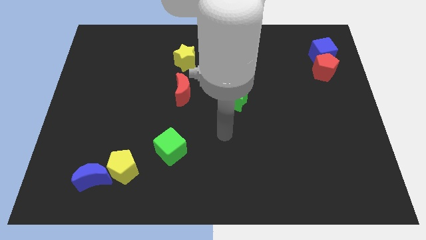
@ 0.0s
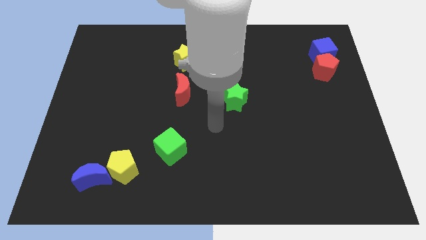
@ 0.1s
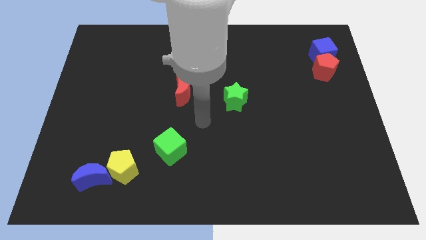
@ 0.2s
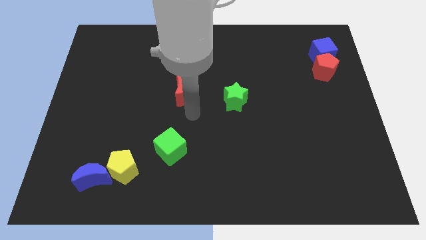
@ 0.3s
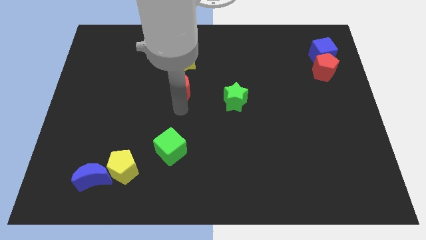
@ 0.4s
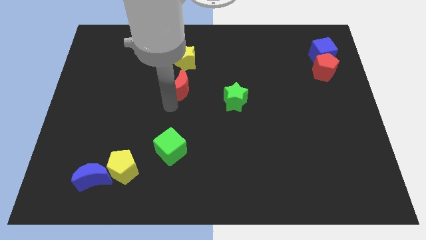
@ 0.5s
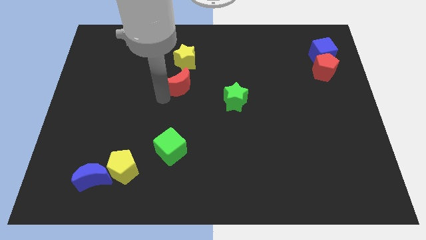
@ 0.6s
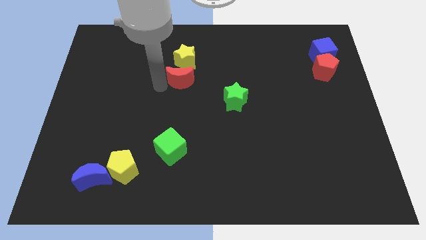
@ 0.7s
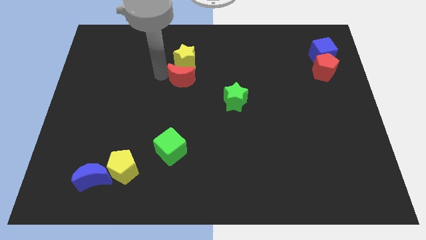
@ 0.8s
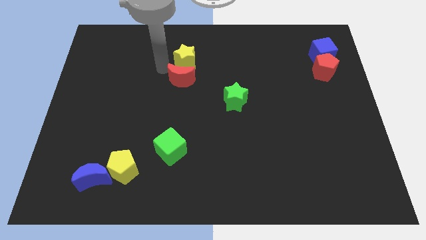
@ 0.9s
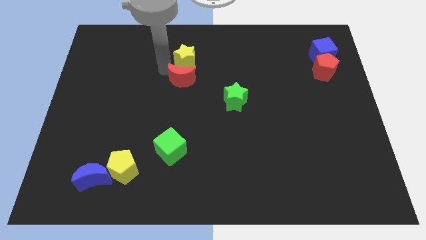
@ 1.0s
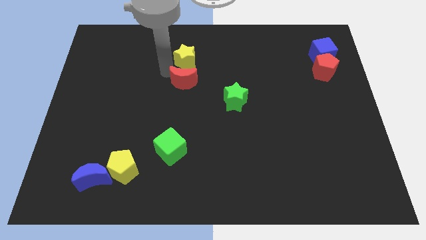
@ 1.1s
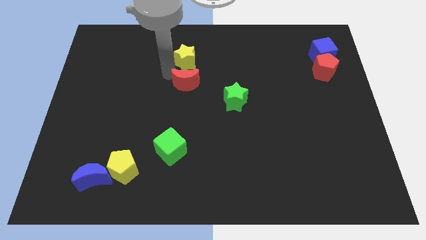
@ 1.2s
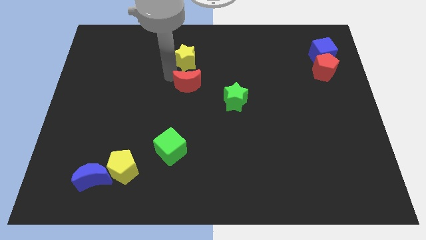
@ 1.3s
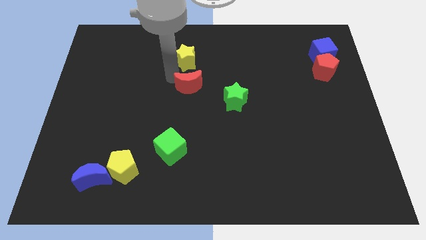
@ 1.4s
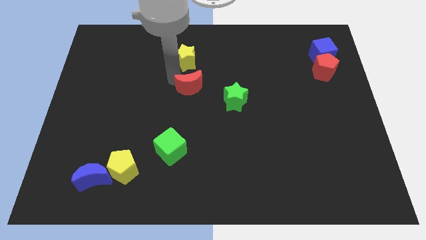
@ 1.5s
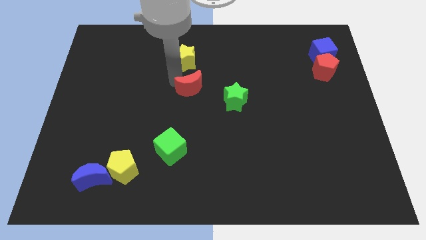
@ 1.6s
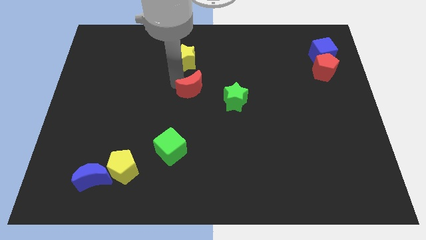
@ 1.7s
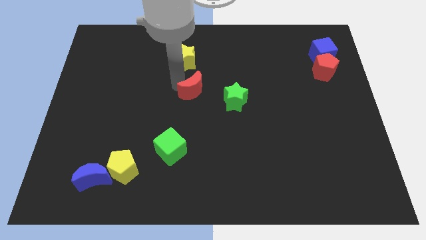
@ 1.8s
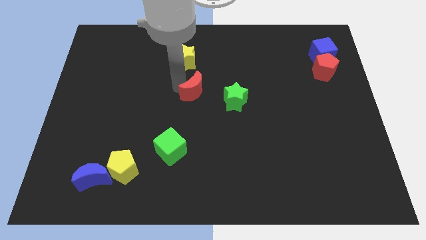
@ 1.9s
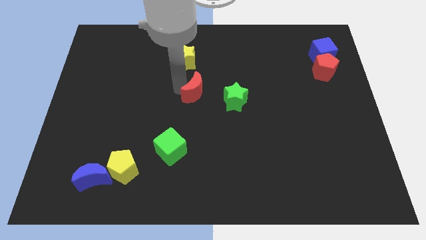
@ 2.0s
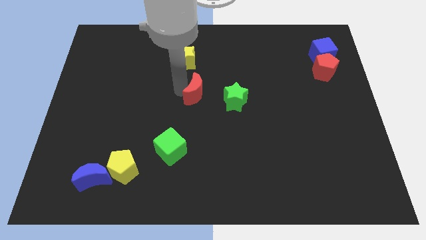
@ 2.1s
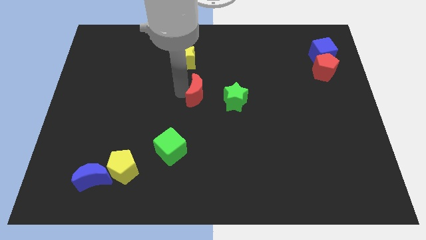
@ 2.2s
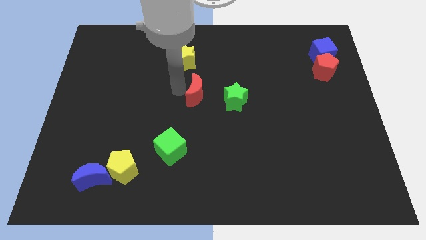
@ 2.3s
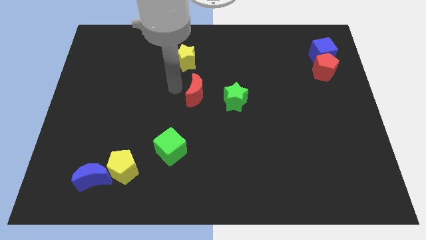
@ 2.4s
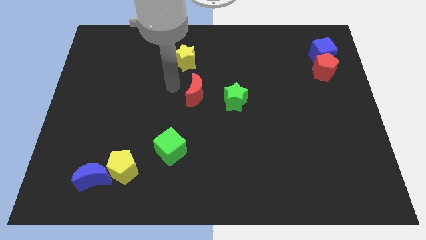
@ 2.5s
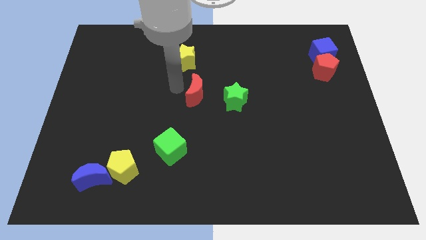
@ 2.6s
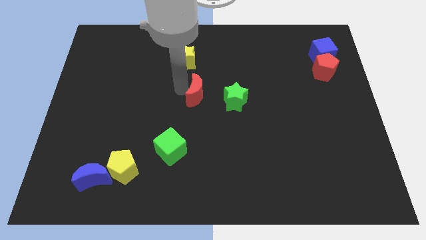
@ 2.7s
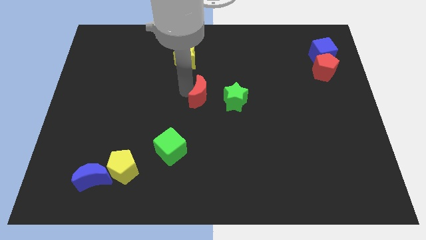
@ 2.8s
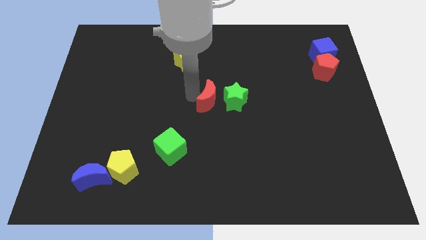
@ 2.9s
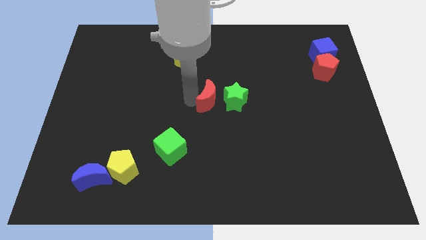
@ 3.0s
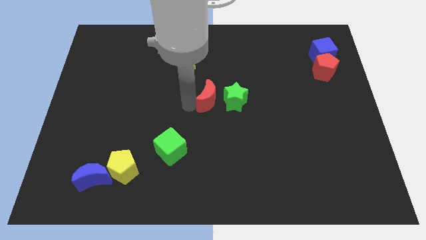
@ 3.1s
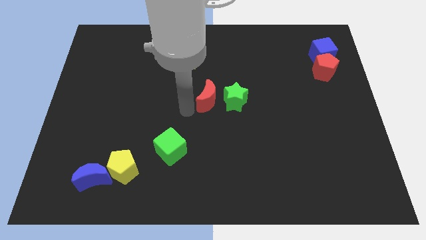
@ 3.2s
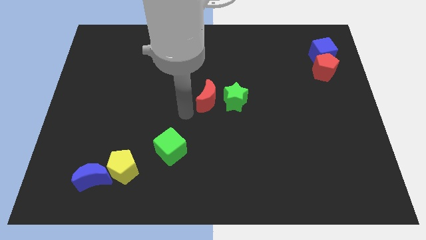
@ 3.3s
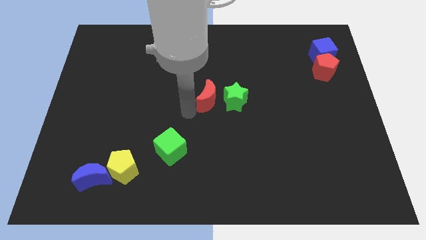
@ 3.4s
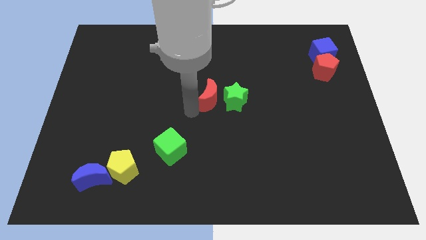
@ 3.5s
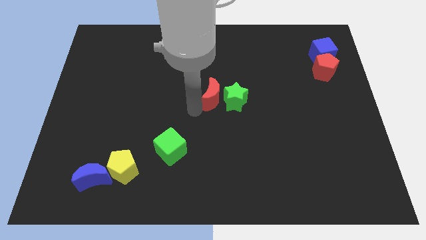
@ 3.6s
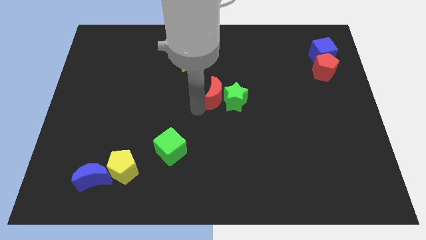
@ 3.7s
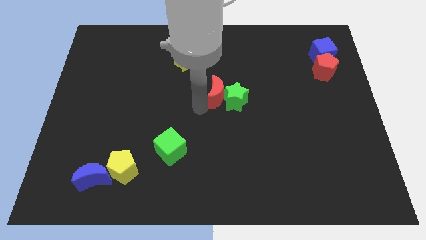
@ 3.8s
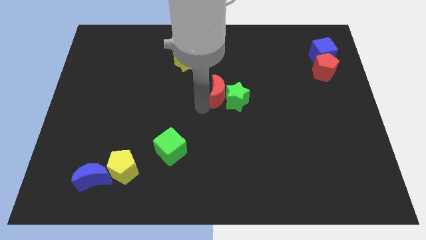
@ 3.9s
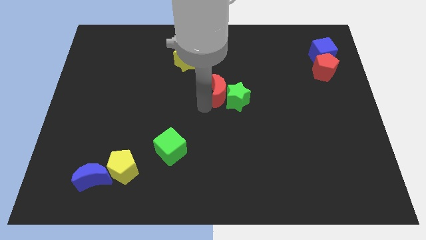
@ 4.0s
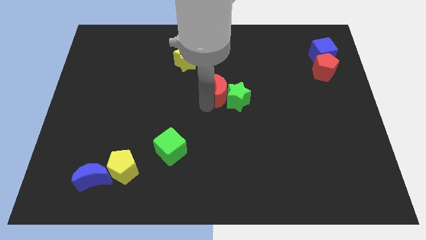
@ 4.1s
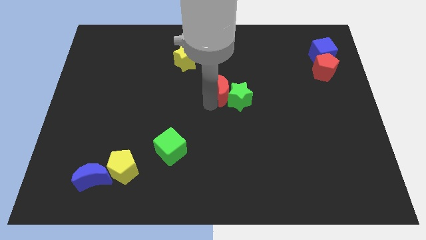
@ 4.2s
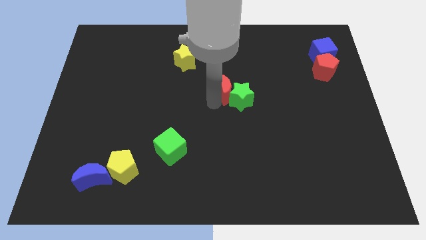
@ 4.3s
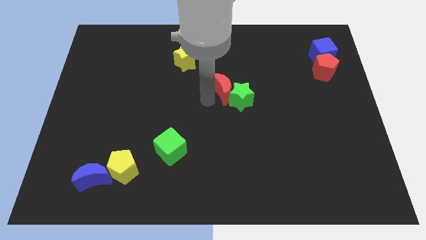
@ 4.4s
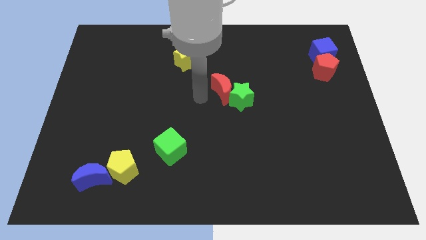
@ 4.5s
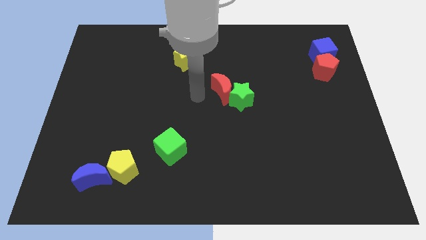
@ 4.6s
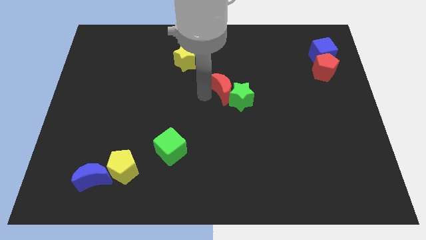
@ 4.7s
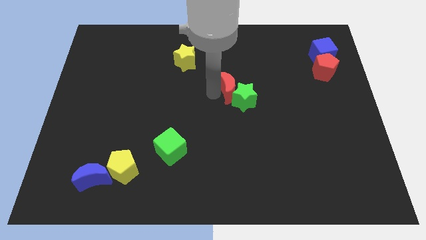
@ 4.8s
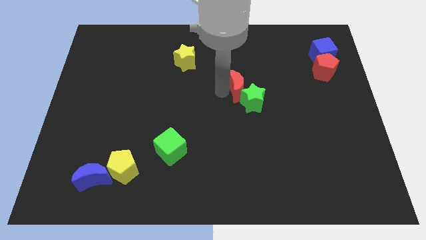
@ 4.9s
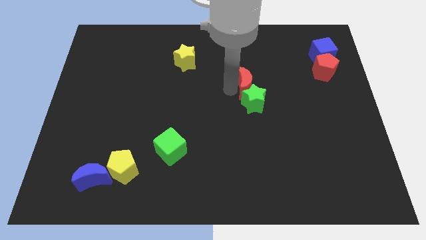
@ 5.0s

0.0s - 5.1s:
put the red moon diagonally up and to the right of the green star

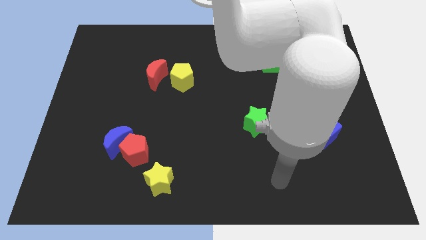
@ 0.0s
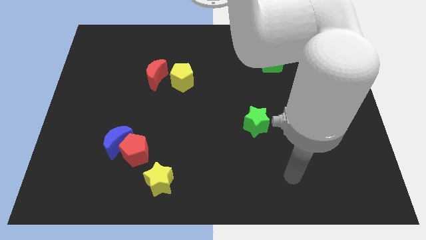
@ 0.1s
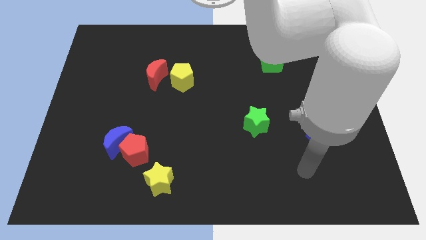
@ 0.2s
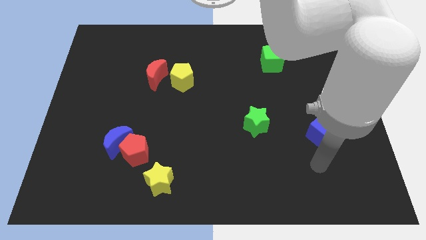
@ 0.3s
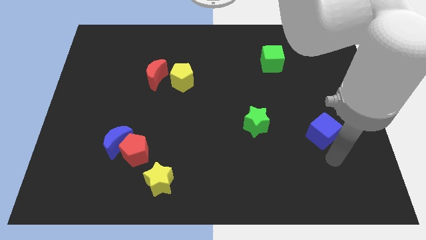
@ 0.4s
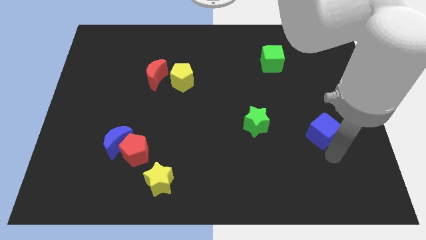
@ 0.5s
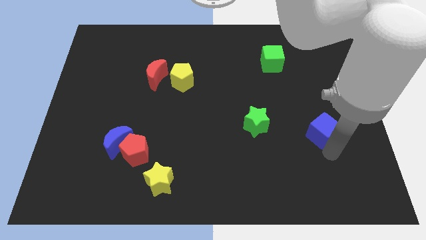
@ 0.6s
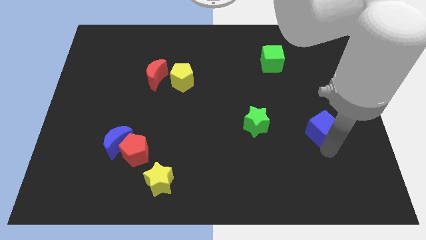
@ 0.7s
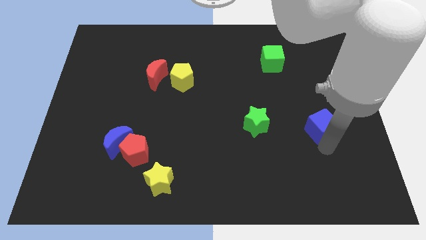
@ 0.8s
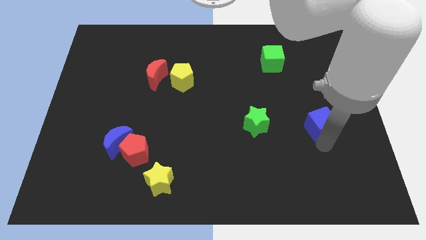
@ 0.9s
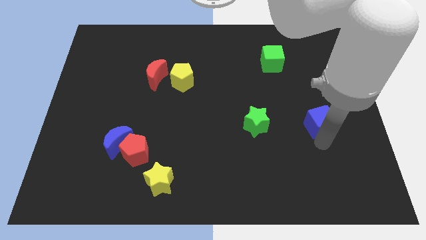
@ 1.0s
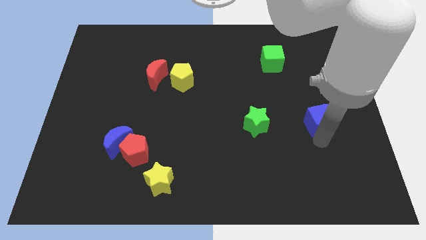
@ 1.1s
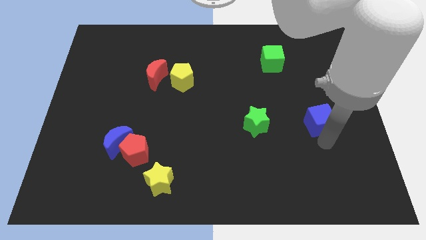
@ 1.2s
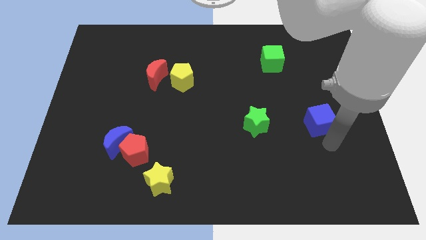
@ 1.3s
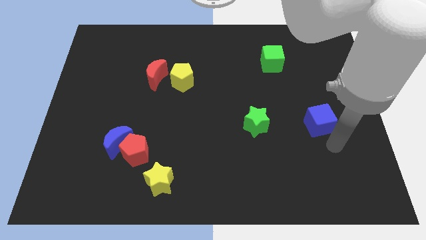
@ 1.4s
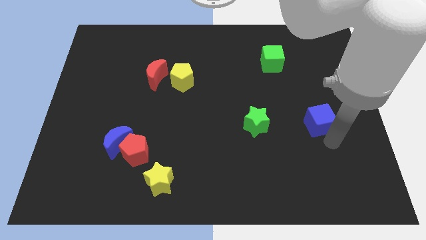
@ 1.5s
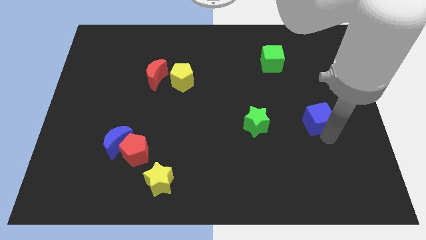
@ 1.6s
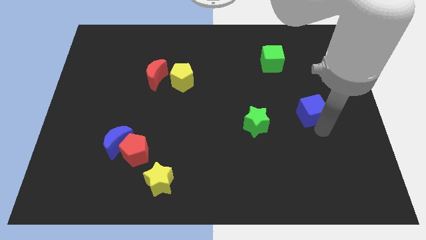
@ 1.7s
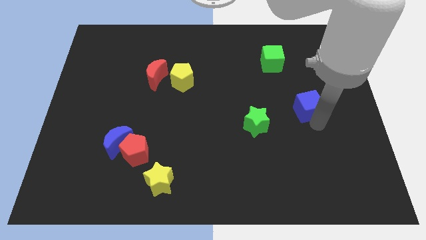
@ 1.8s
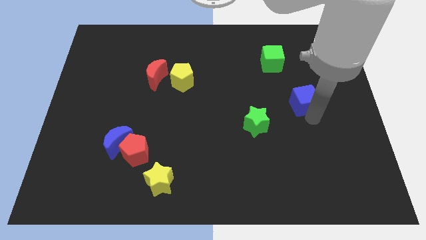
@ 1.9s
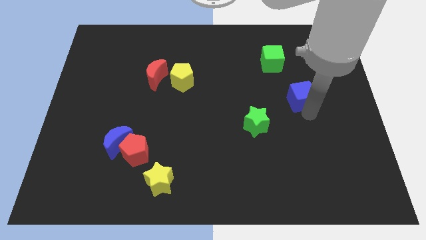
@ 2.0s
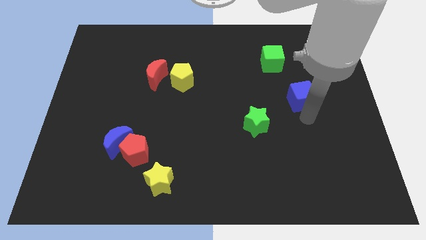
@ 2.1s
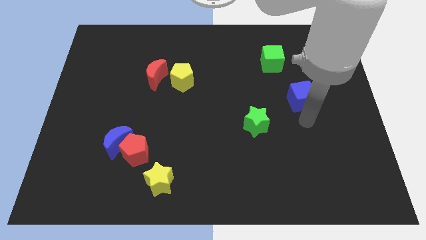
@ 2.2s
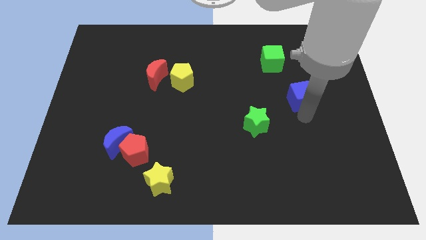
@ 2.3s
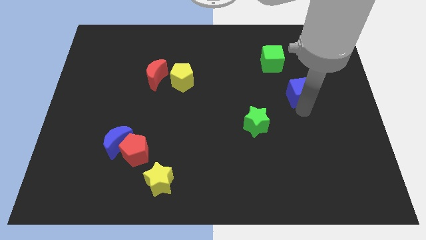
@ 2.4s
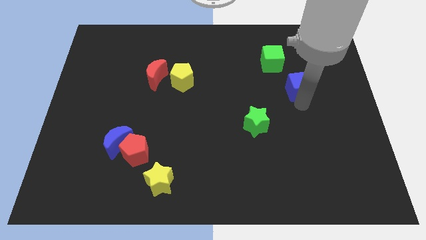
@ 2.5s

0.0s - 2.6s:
put the blue cube to the bottom right side of the green cube

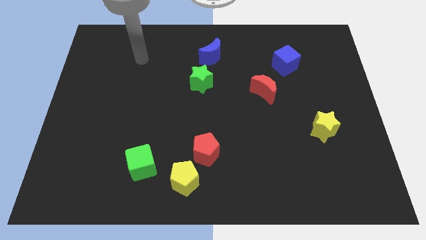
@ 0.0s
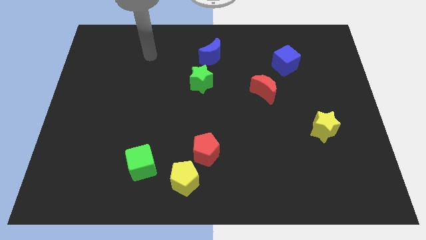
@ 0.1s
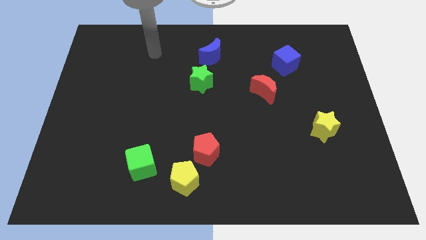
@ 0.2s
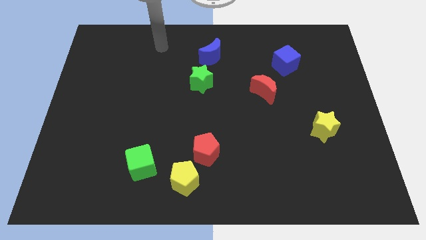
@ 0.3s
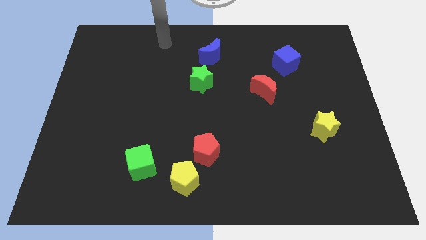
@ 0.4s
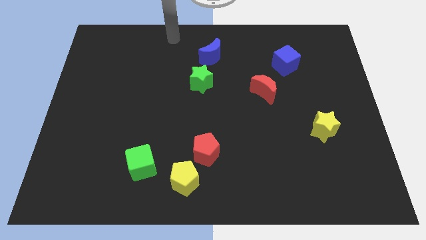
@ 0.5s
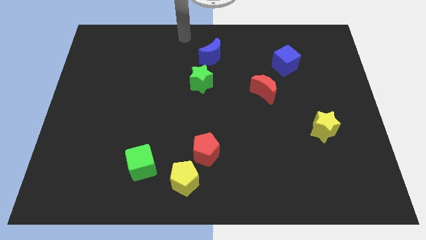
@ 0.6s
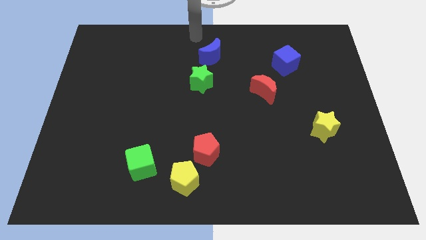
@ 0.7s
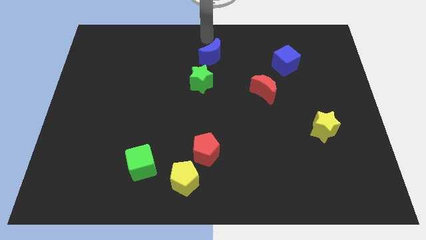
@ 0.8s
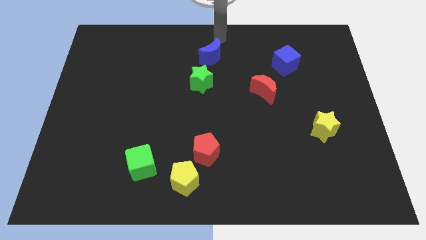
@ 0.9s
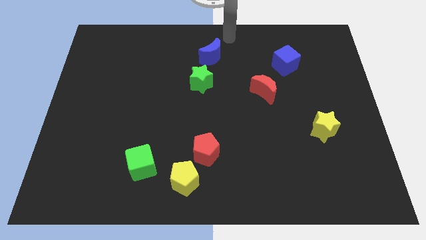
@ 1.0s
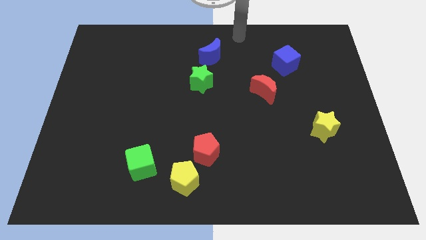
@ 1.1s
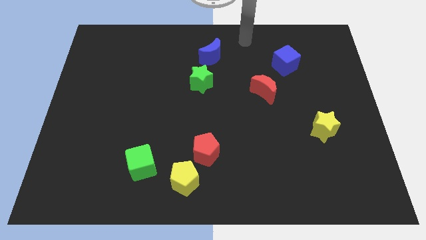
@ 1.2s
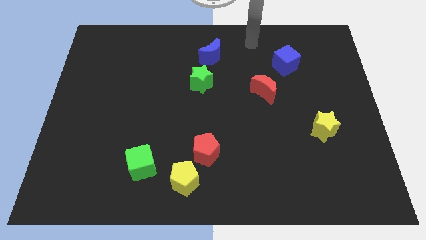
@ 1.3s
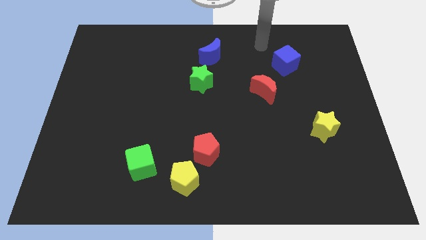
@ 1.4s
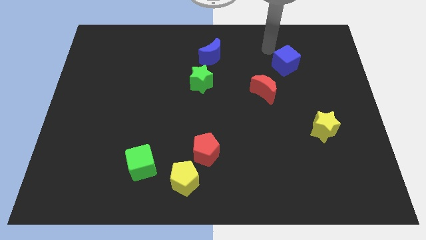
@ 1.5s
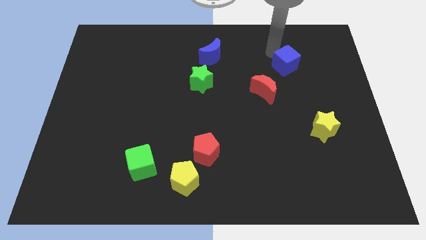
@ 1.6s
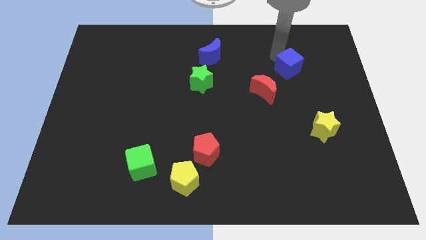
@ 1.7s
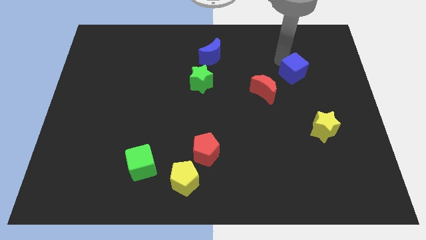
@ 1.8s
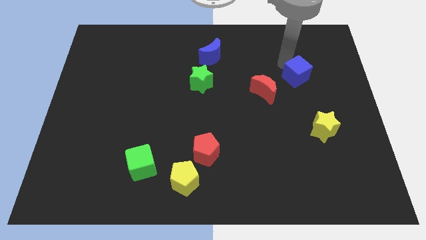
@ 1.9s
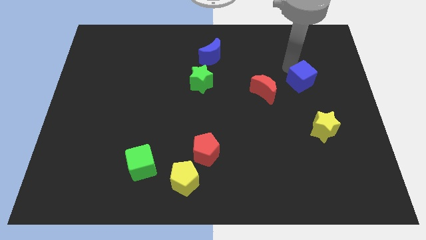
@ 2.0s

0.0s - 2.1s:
put the blue cube right of the red moon
